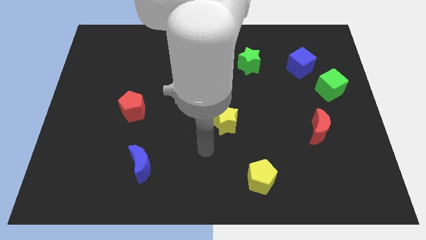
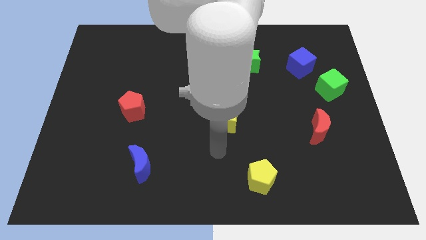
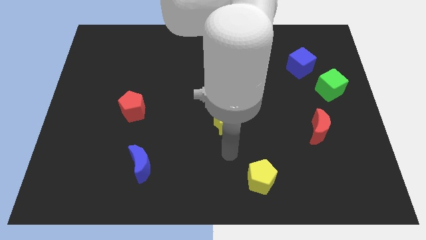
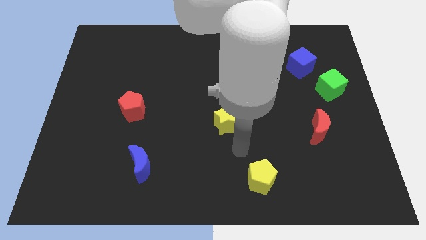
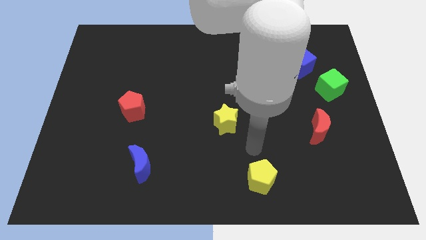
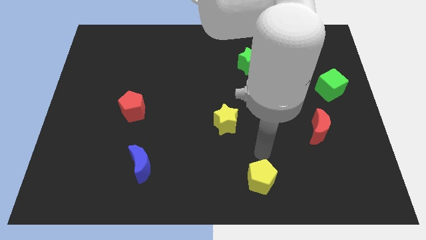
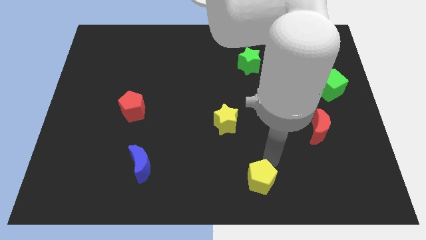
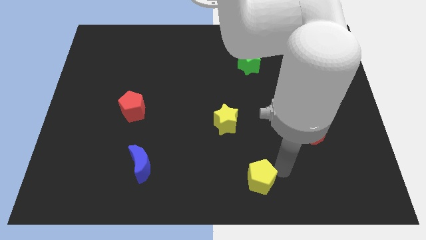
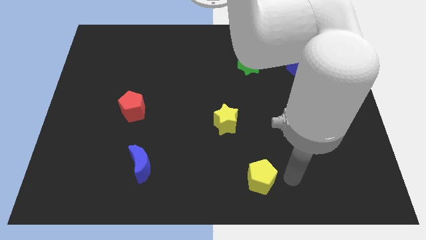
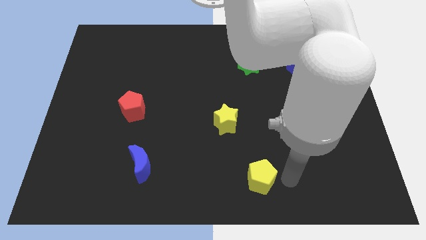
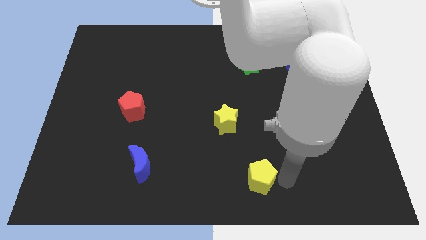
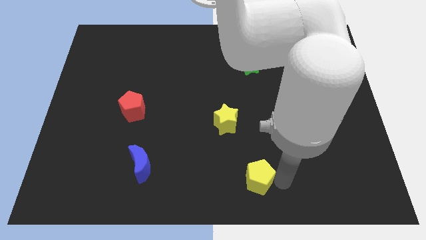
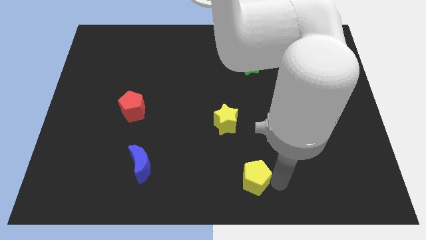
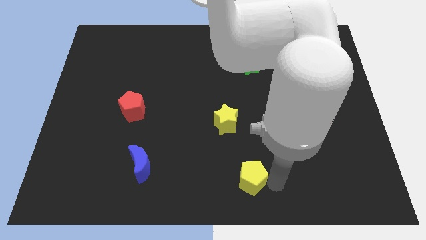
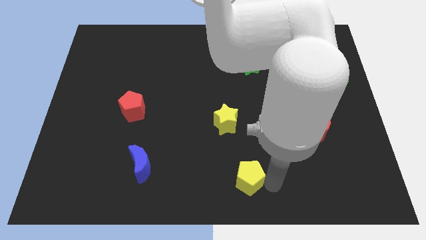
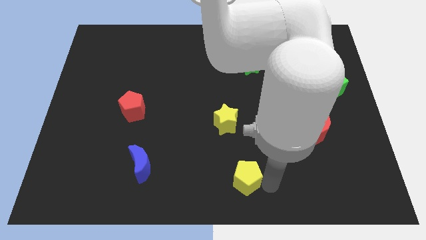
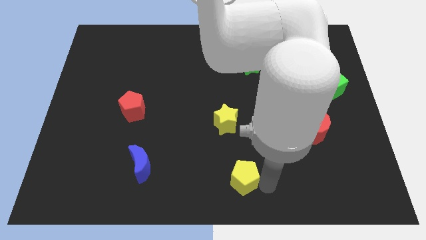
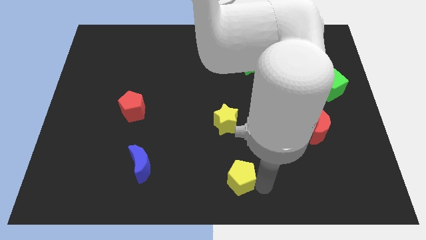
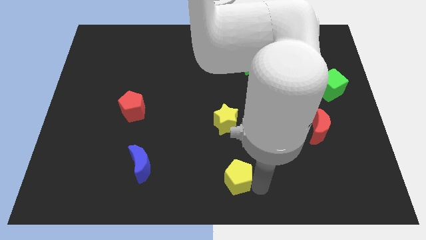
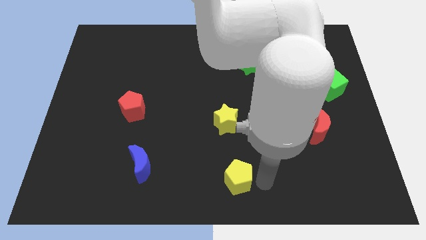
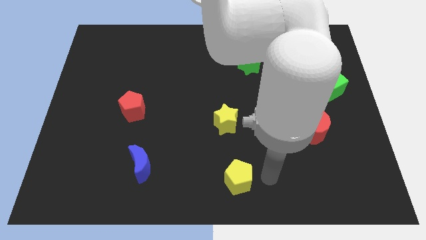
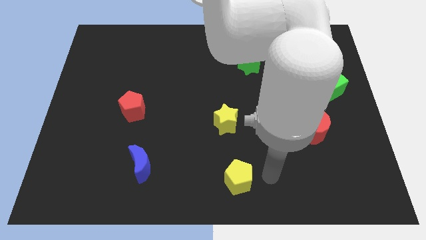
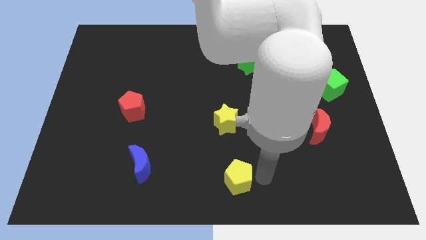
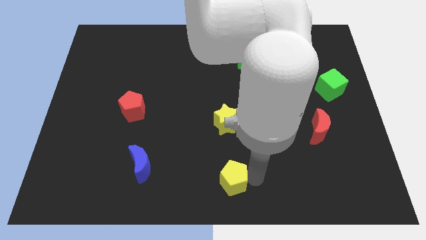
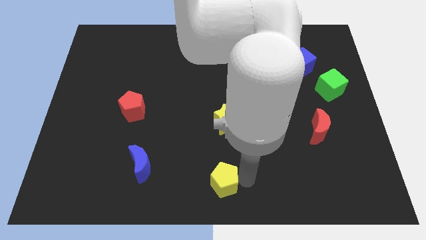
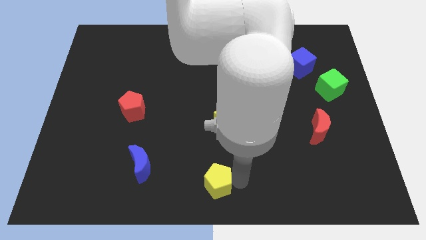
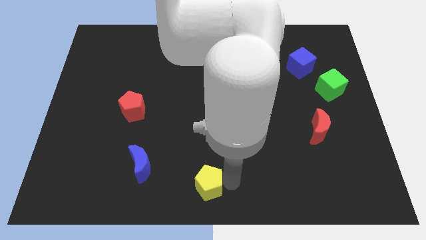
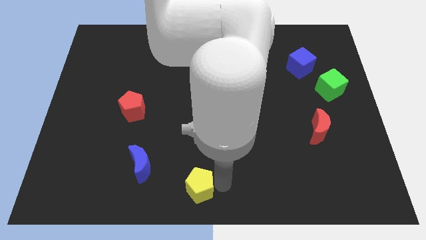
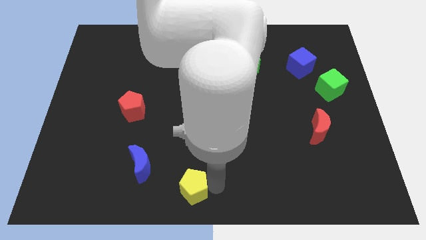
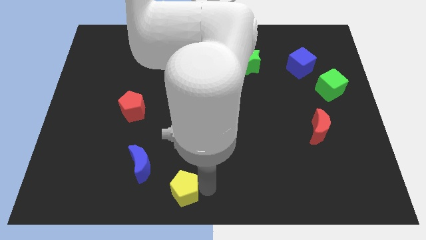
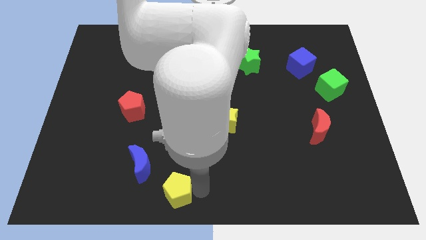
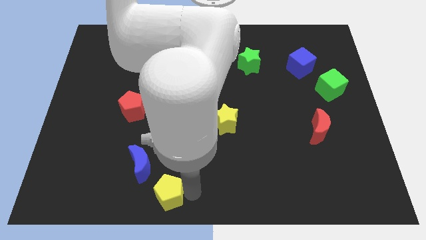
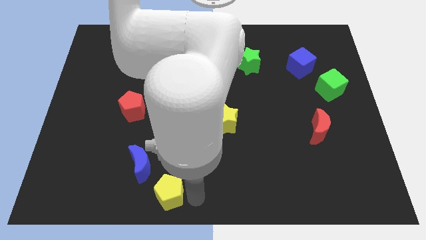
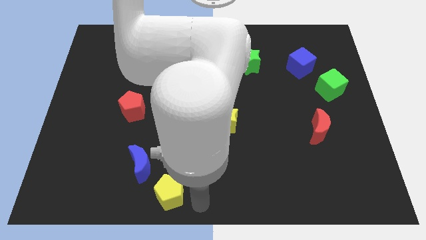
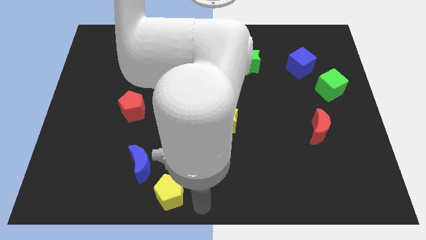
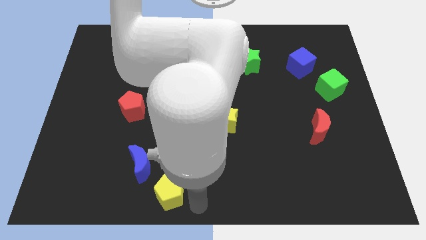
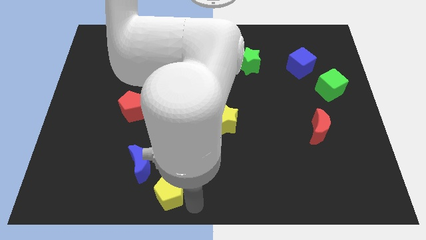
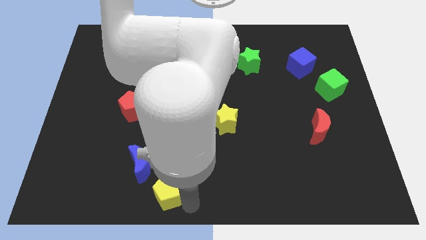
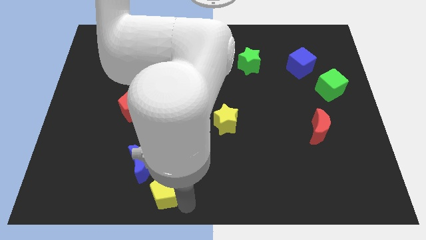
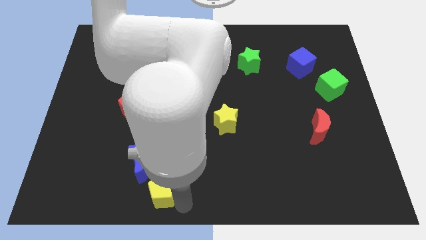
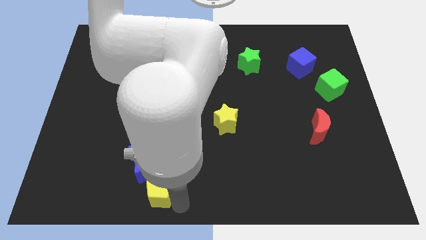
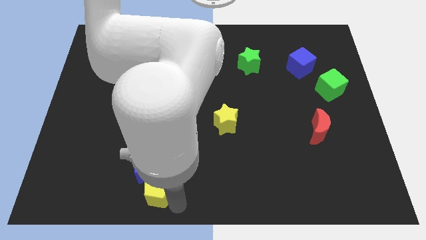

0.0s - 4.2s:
push the yellow pentagon to the left

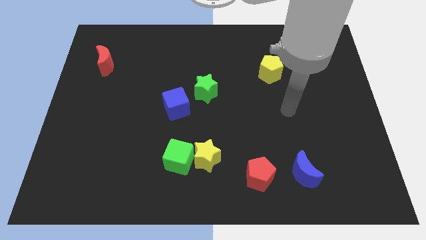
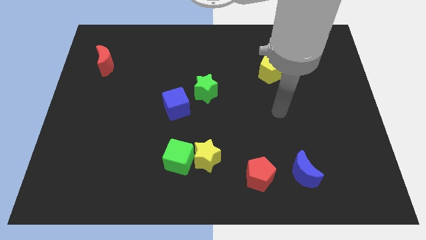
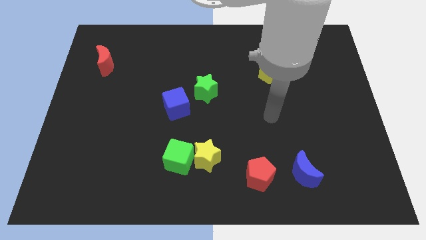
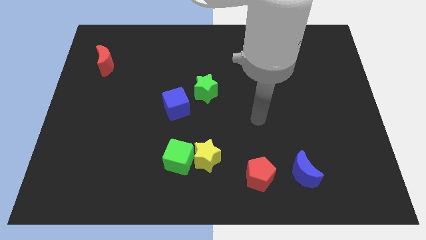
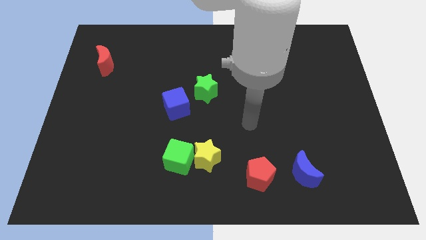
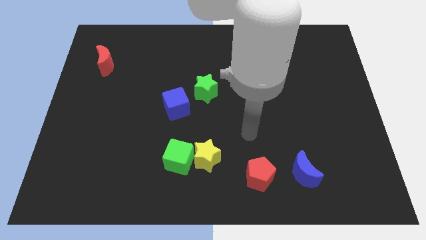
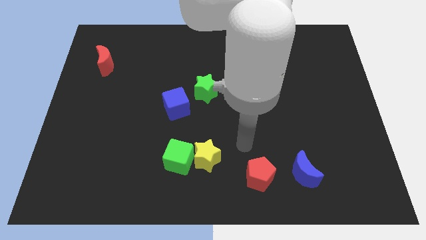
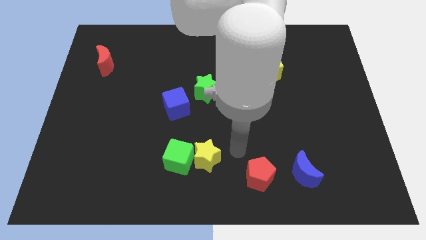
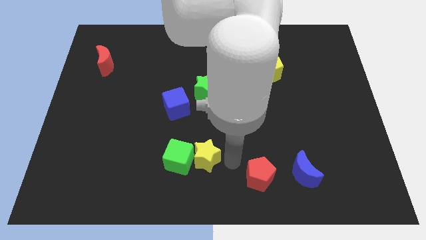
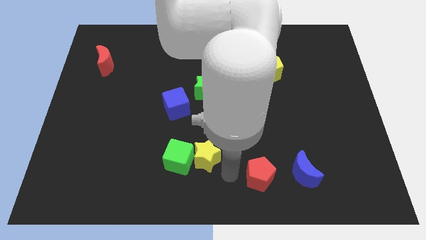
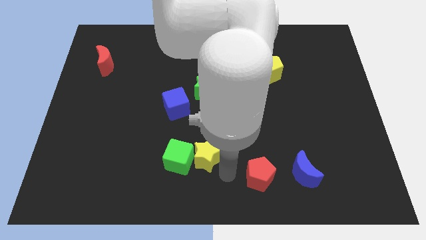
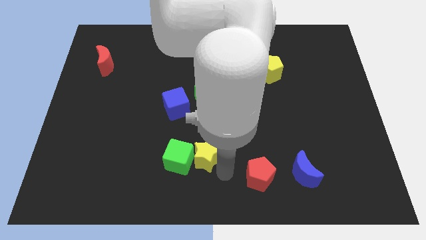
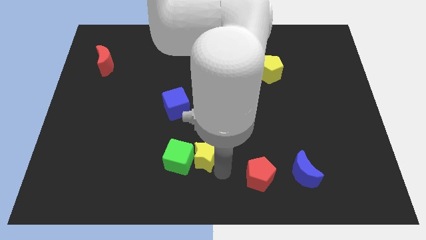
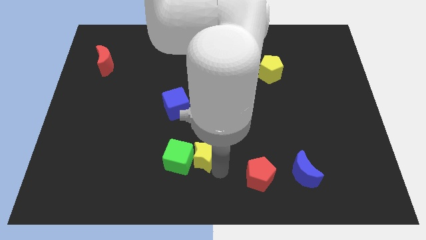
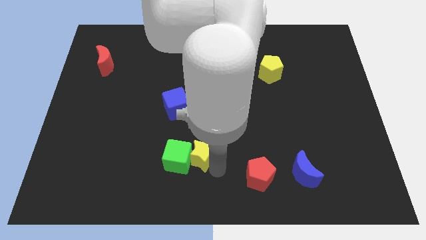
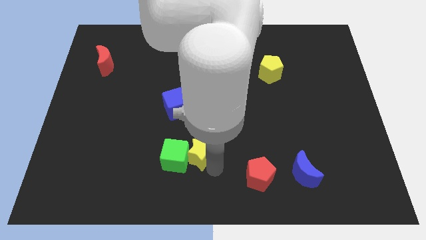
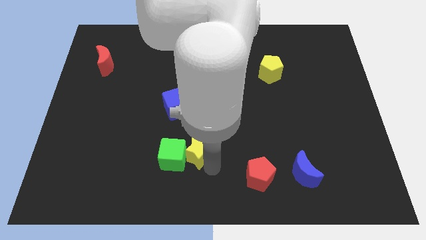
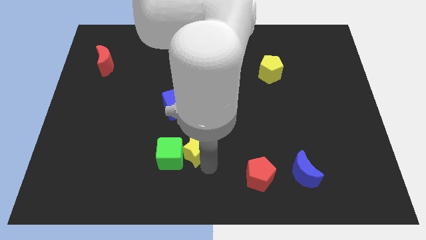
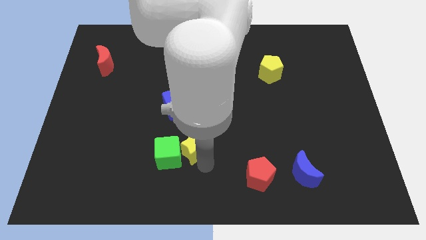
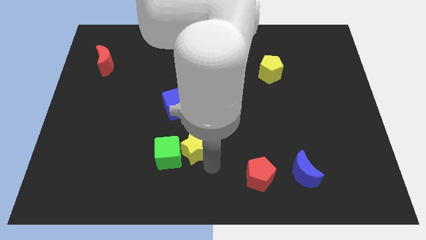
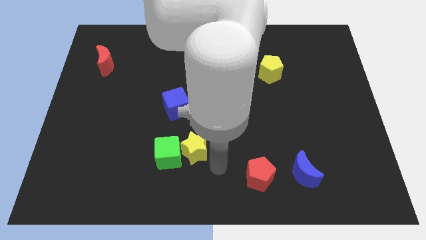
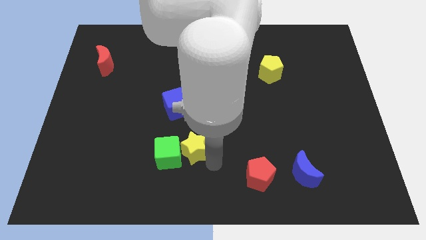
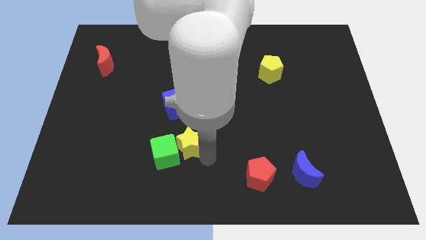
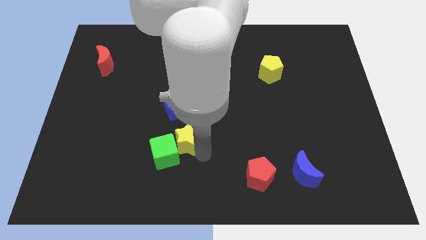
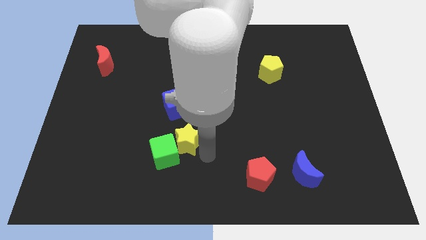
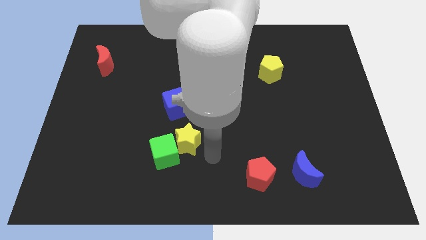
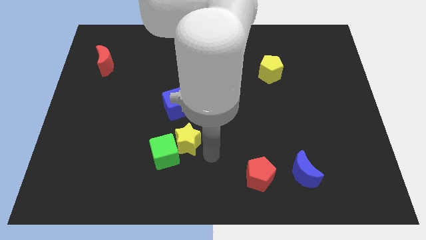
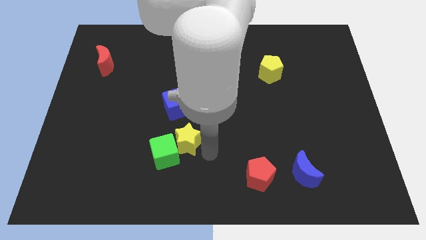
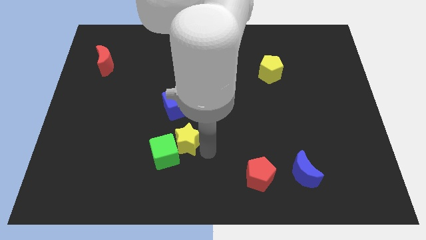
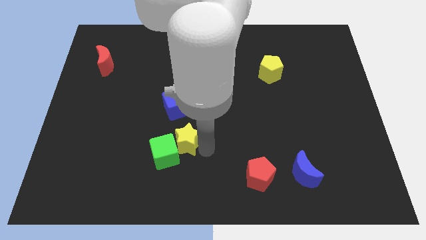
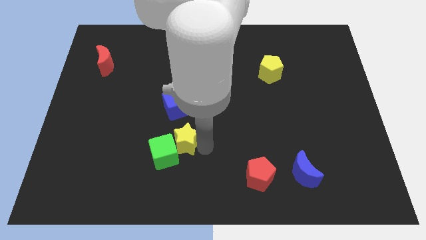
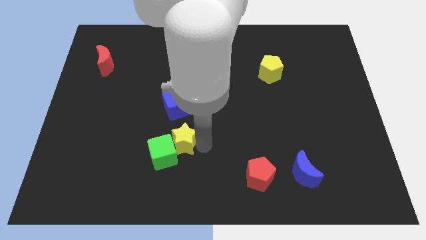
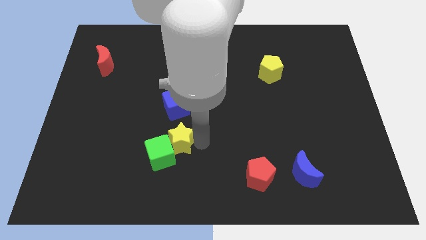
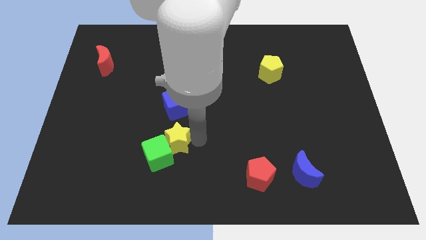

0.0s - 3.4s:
slightly move the yellow star diagonally upwards and left
